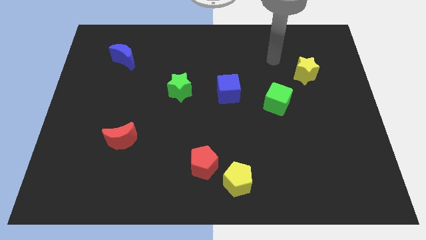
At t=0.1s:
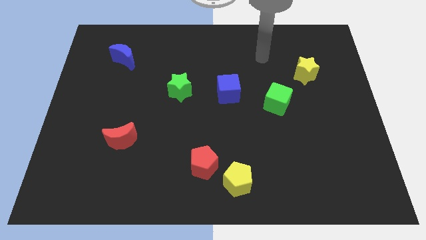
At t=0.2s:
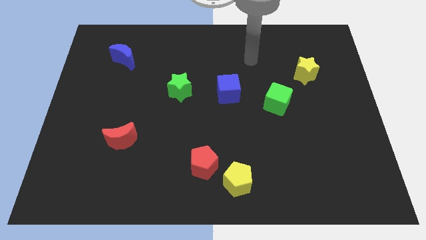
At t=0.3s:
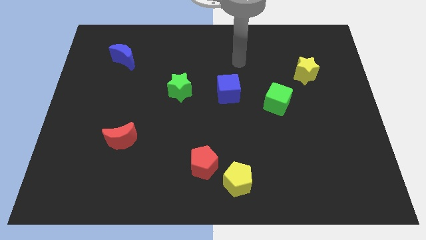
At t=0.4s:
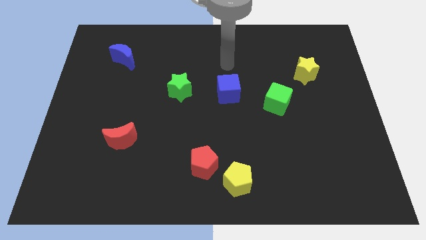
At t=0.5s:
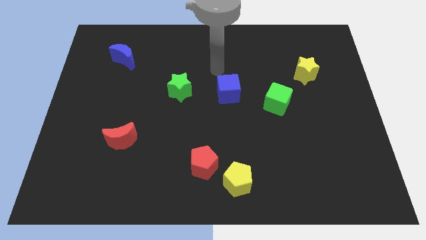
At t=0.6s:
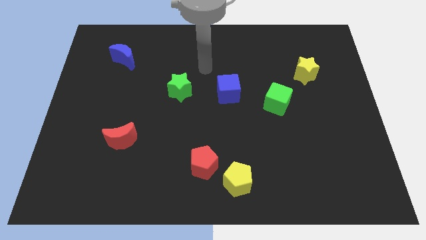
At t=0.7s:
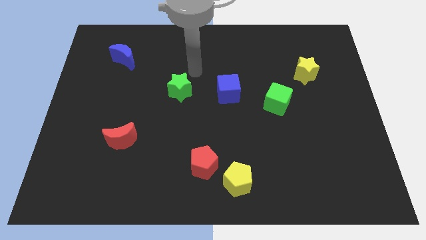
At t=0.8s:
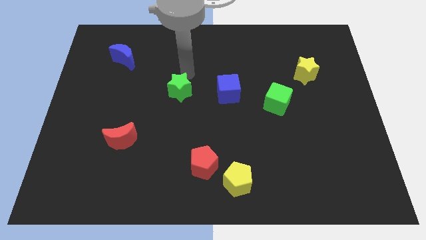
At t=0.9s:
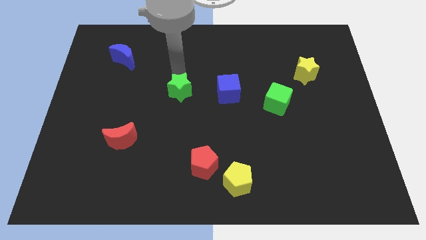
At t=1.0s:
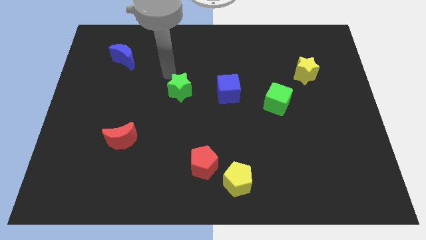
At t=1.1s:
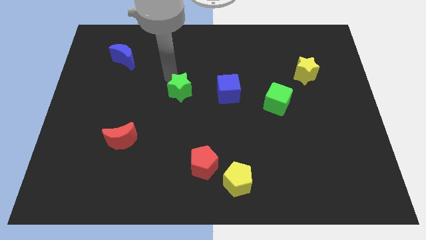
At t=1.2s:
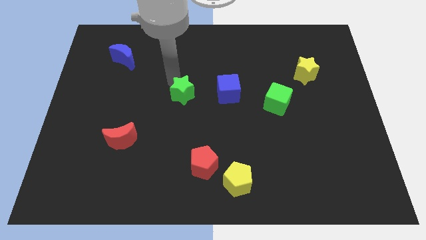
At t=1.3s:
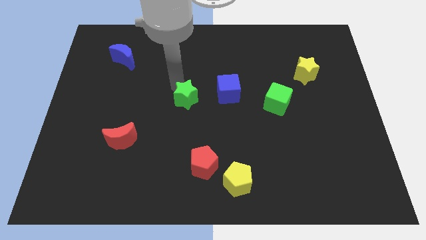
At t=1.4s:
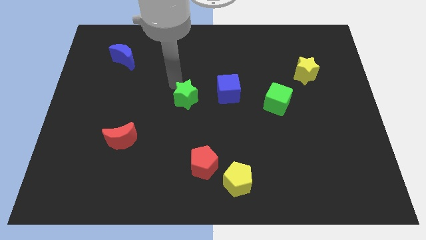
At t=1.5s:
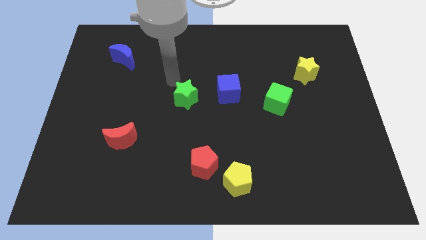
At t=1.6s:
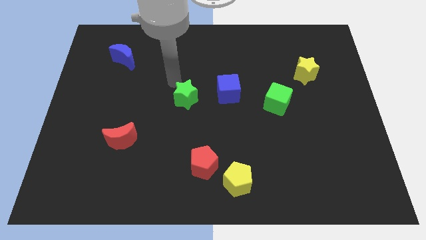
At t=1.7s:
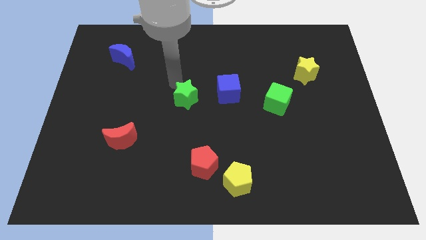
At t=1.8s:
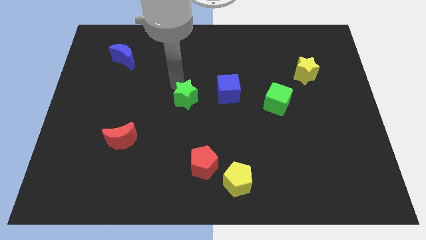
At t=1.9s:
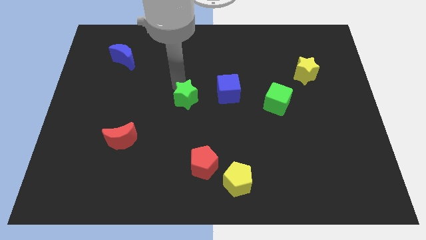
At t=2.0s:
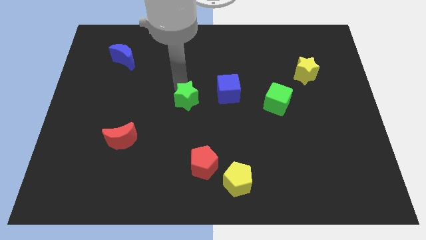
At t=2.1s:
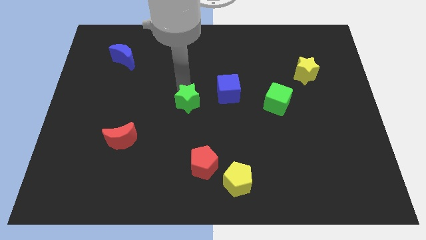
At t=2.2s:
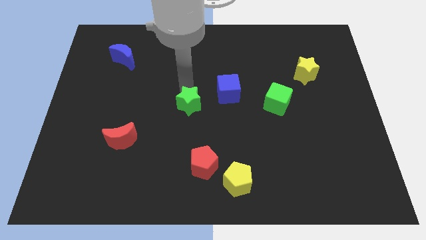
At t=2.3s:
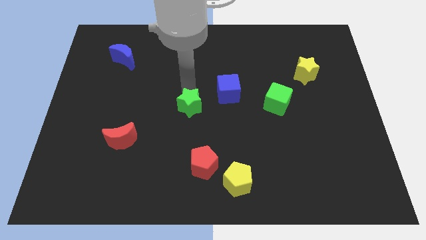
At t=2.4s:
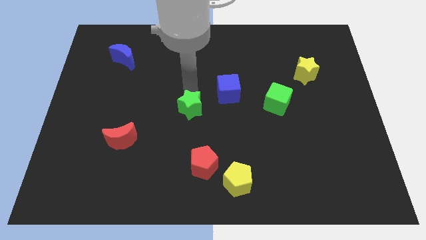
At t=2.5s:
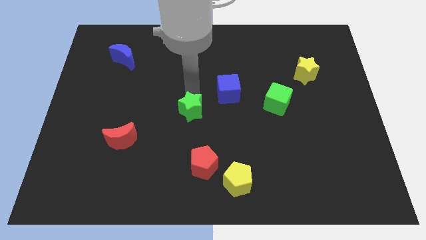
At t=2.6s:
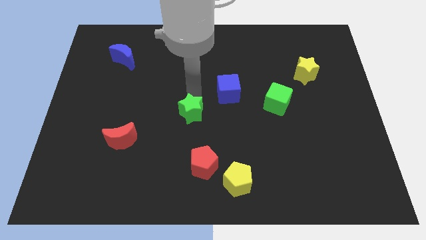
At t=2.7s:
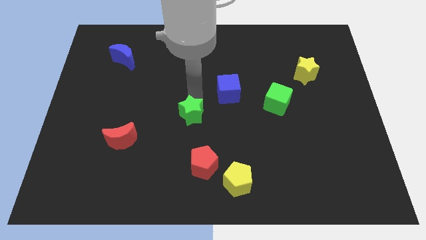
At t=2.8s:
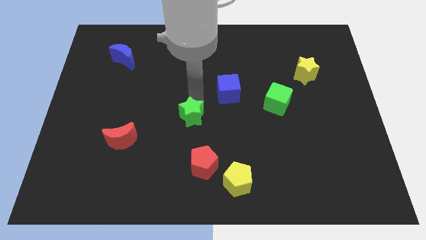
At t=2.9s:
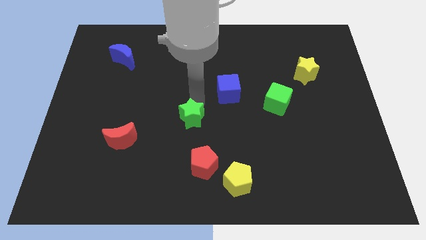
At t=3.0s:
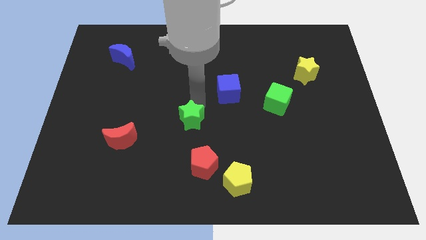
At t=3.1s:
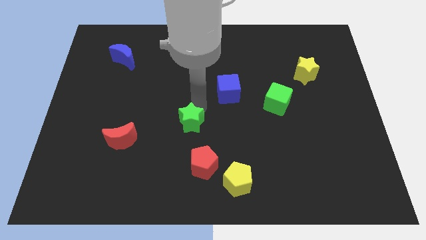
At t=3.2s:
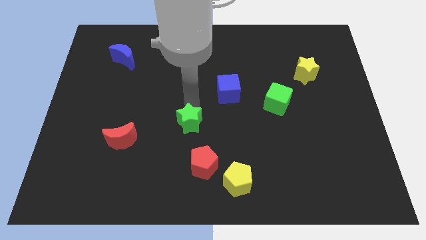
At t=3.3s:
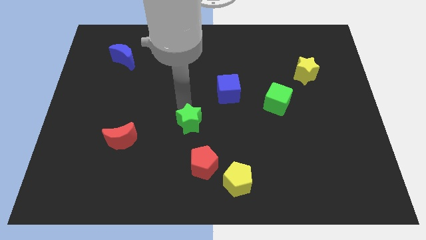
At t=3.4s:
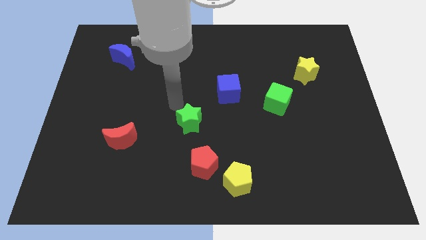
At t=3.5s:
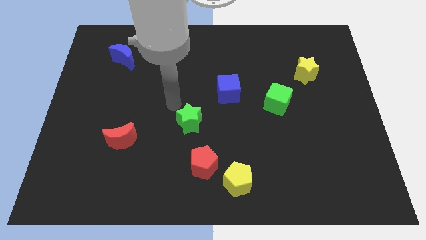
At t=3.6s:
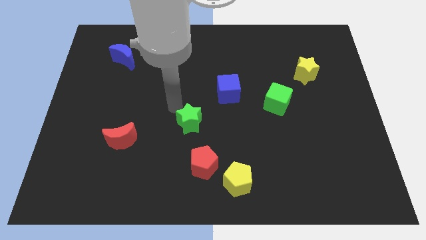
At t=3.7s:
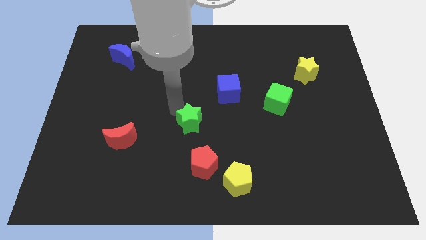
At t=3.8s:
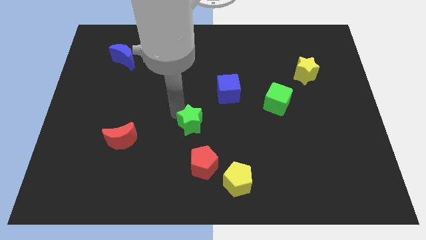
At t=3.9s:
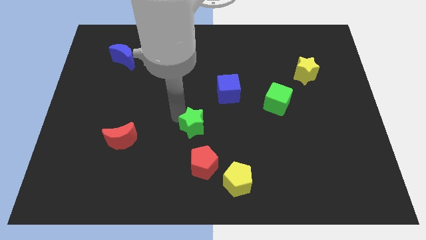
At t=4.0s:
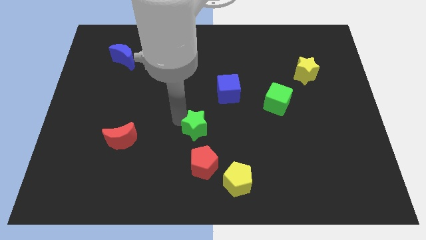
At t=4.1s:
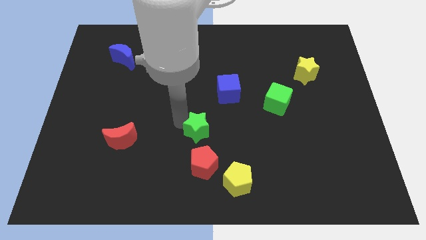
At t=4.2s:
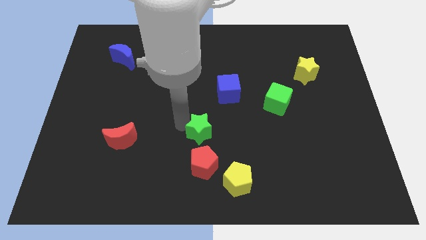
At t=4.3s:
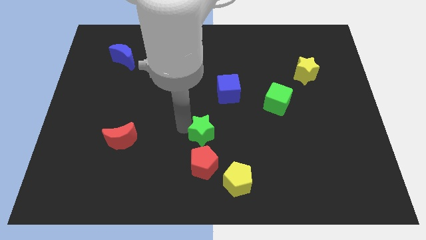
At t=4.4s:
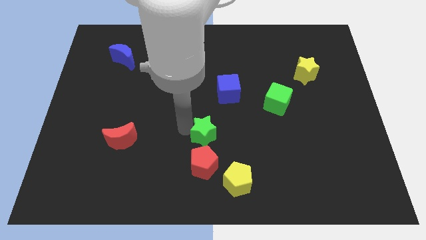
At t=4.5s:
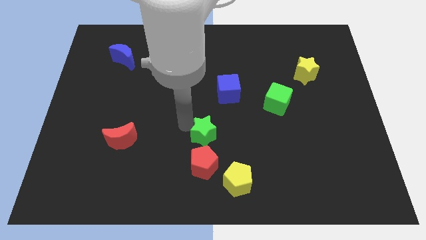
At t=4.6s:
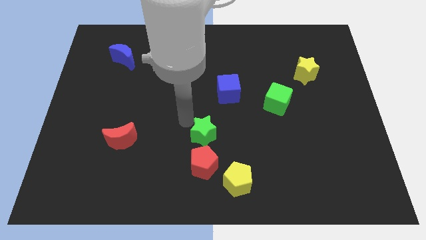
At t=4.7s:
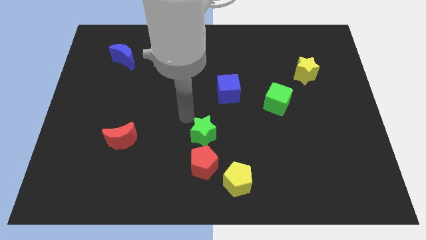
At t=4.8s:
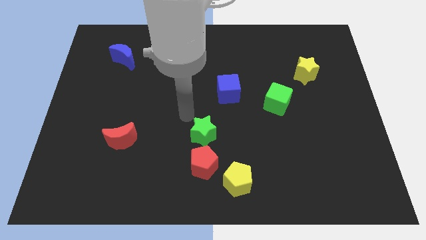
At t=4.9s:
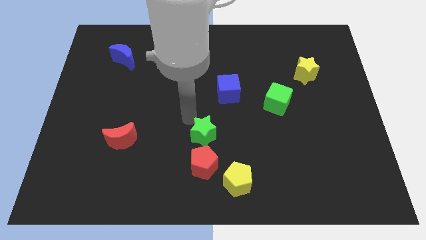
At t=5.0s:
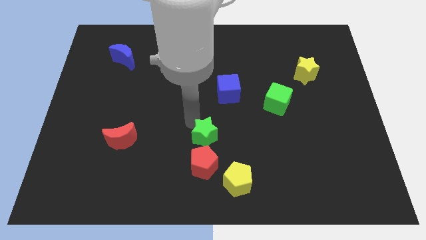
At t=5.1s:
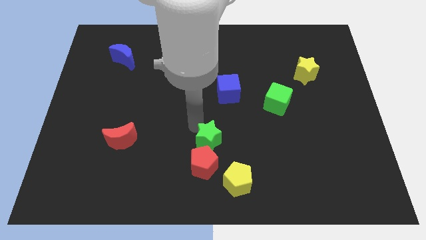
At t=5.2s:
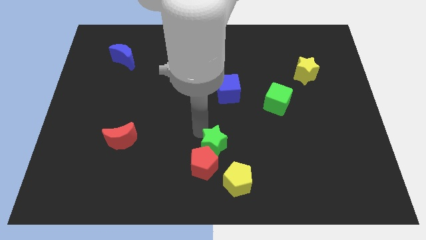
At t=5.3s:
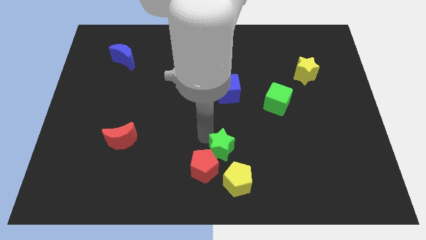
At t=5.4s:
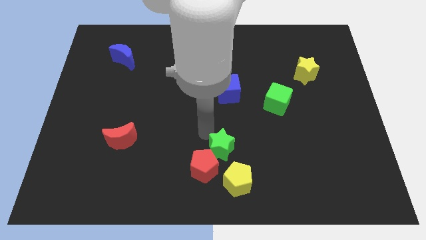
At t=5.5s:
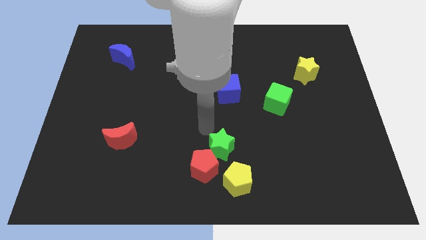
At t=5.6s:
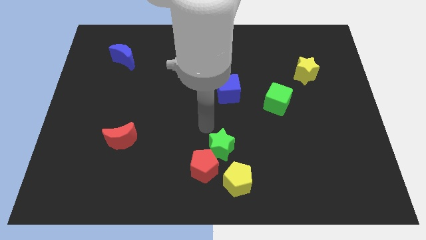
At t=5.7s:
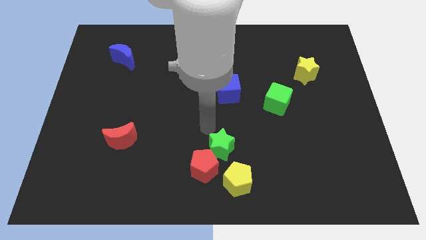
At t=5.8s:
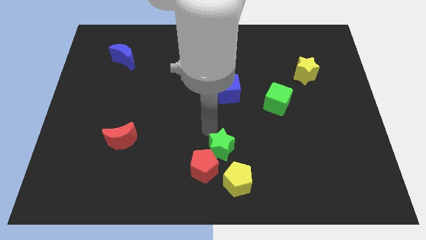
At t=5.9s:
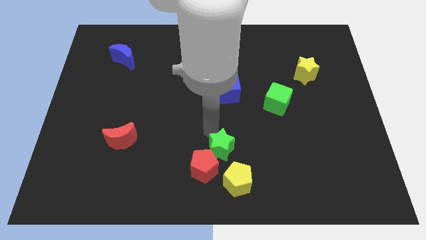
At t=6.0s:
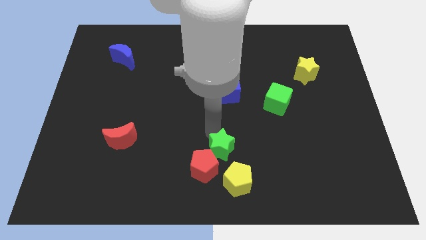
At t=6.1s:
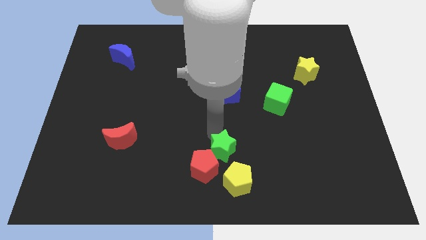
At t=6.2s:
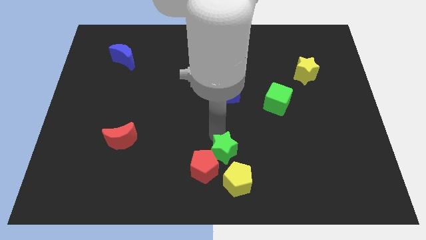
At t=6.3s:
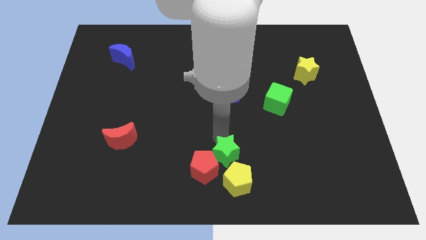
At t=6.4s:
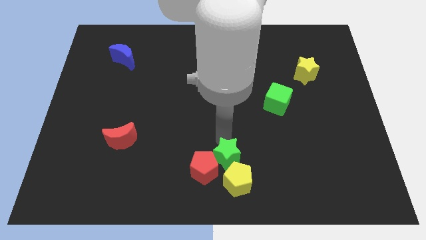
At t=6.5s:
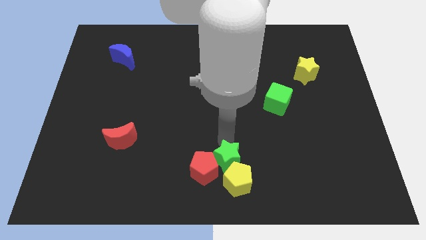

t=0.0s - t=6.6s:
move the green star close to the yellow pentagon

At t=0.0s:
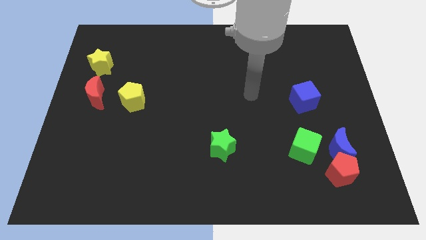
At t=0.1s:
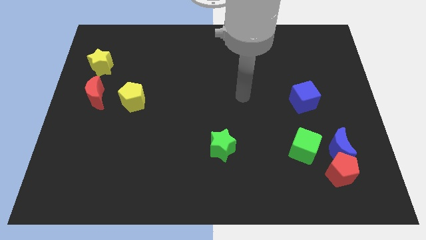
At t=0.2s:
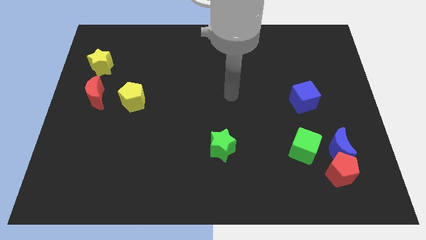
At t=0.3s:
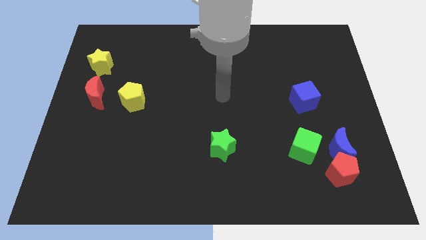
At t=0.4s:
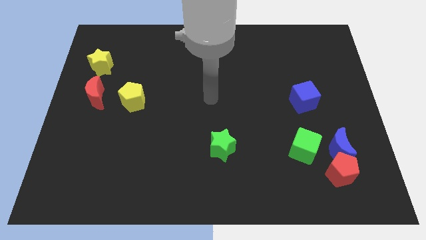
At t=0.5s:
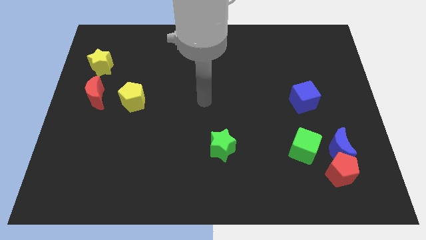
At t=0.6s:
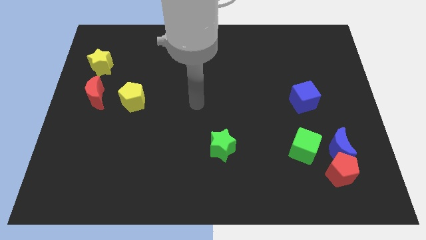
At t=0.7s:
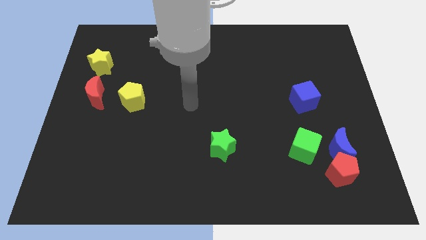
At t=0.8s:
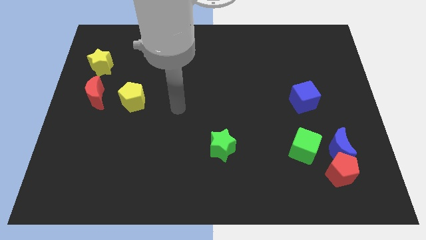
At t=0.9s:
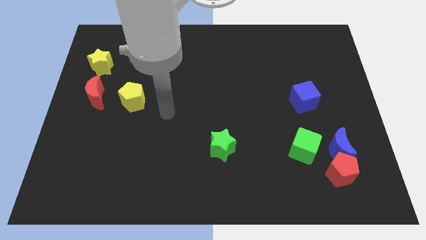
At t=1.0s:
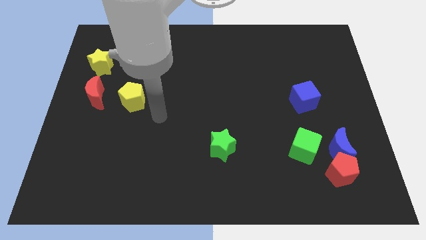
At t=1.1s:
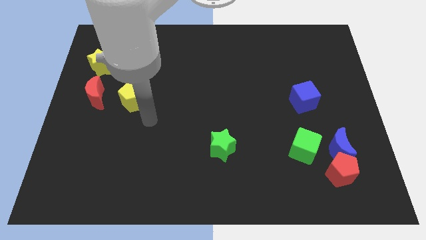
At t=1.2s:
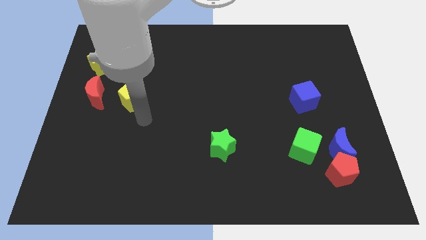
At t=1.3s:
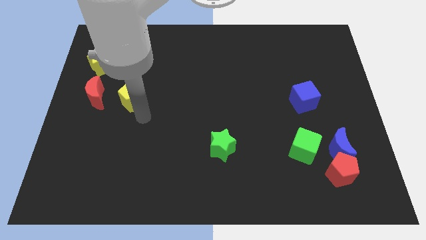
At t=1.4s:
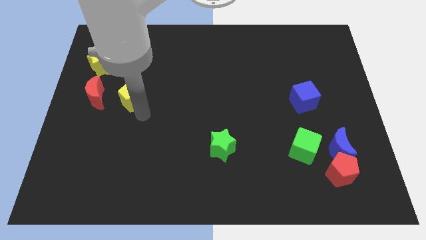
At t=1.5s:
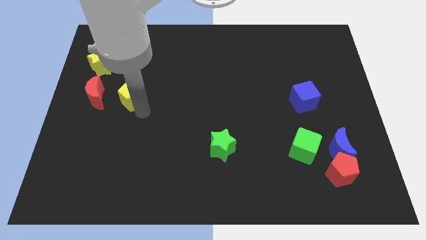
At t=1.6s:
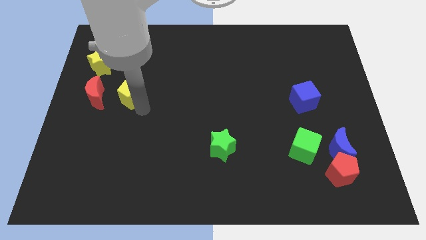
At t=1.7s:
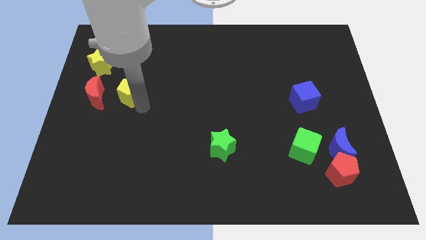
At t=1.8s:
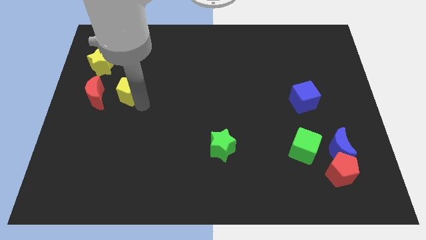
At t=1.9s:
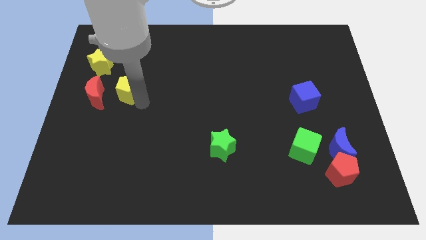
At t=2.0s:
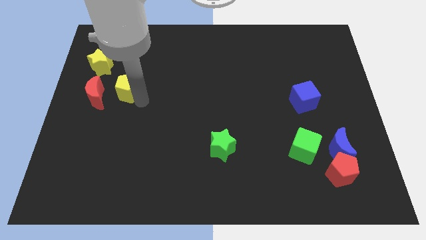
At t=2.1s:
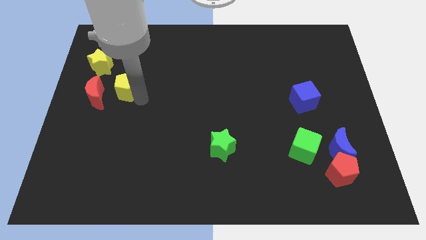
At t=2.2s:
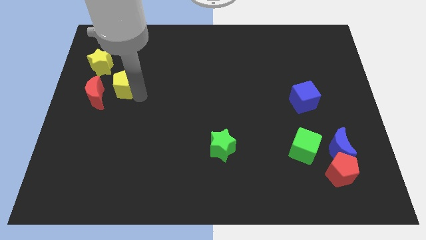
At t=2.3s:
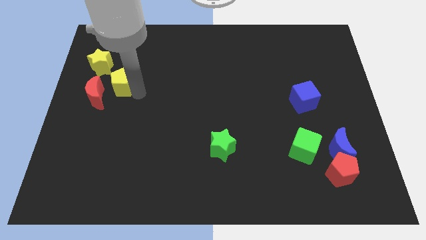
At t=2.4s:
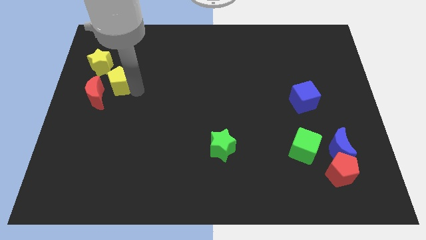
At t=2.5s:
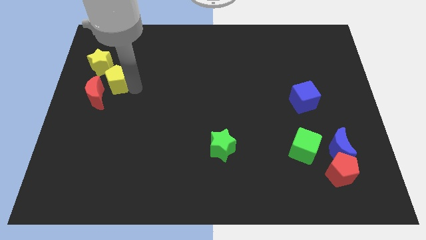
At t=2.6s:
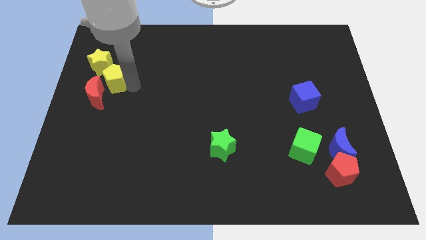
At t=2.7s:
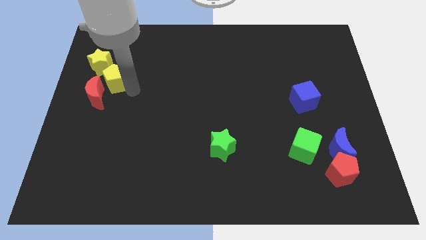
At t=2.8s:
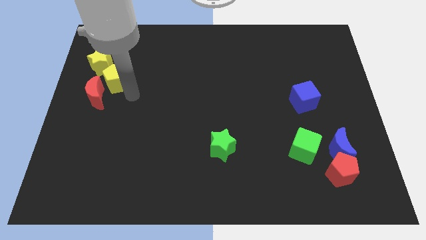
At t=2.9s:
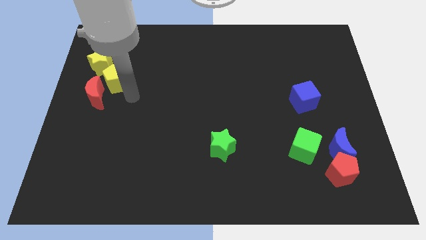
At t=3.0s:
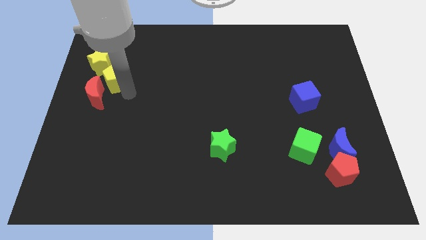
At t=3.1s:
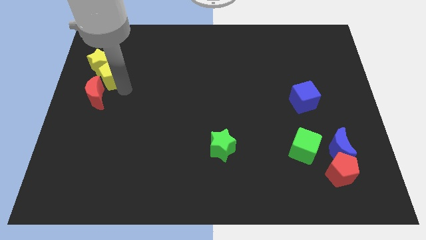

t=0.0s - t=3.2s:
push the yellow pentagon next to the yellow star
